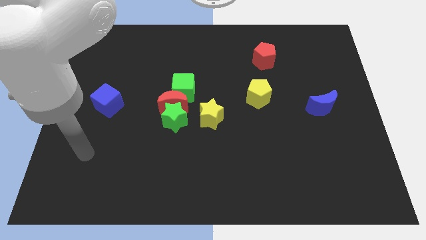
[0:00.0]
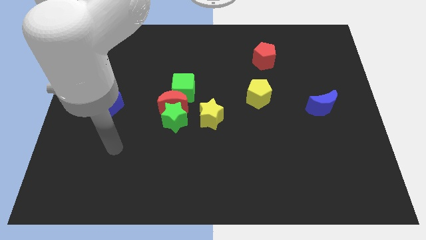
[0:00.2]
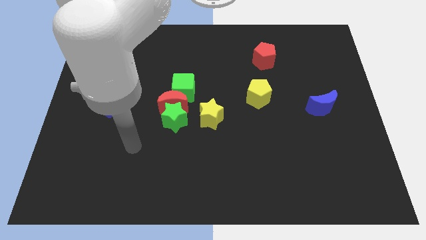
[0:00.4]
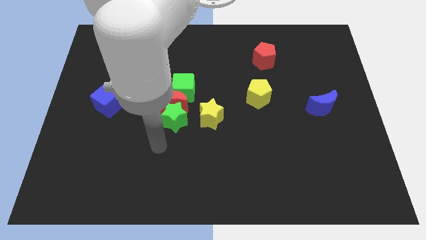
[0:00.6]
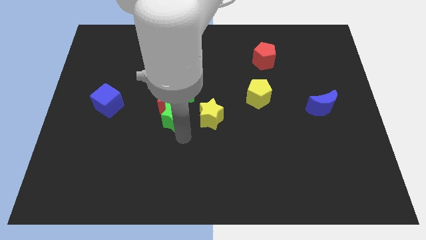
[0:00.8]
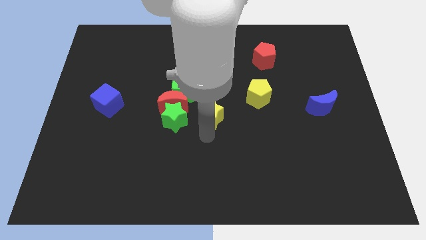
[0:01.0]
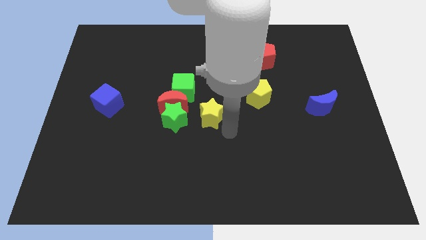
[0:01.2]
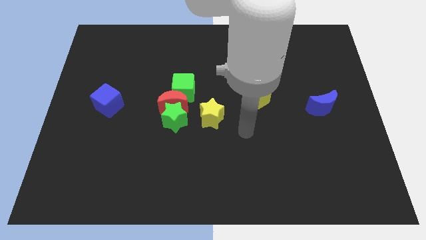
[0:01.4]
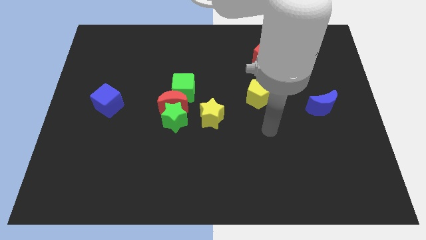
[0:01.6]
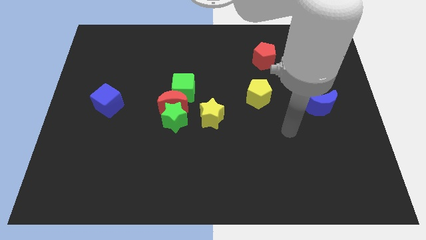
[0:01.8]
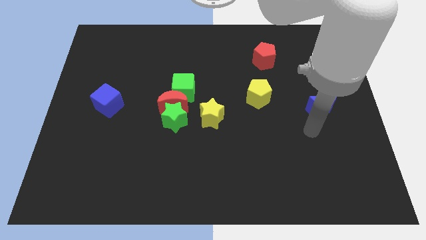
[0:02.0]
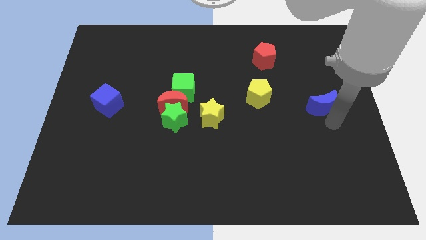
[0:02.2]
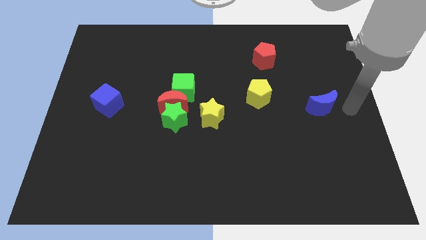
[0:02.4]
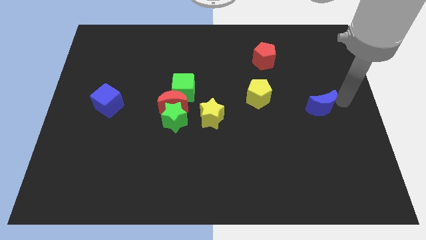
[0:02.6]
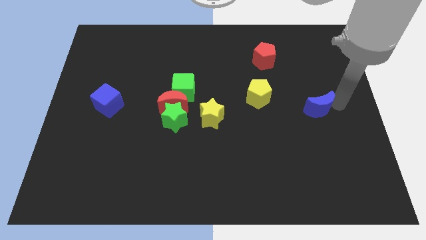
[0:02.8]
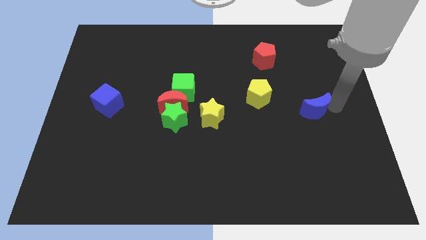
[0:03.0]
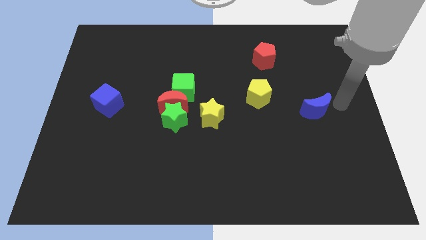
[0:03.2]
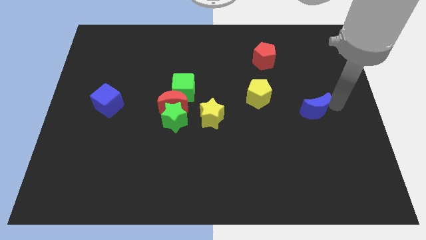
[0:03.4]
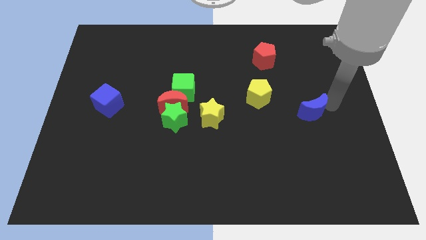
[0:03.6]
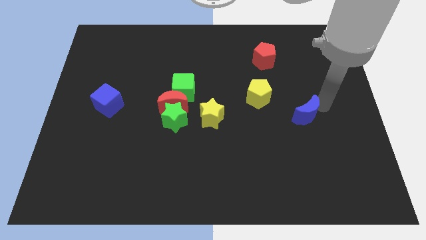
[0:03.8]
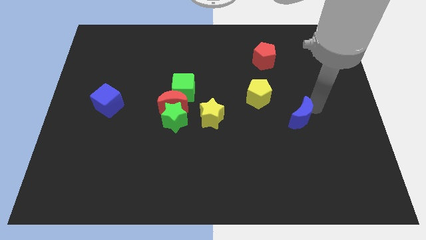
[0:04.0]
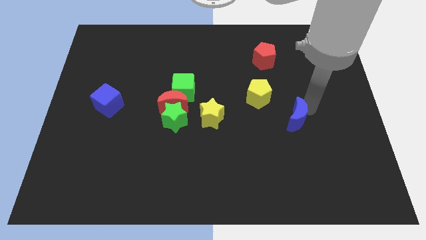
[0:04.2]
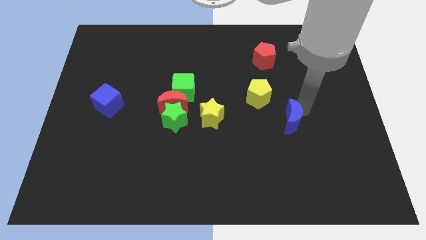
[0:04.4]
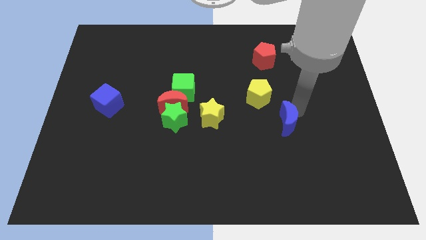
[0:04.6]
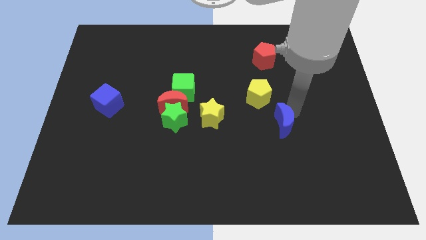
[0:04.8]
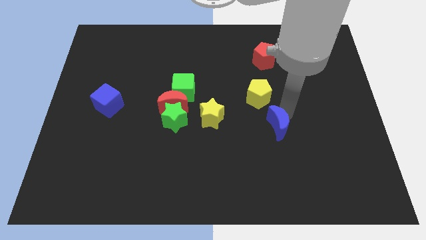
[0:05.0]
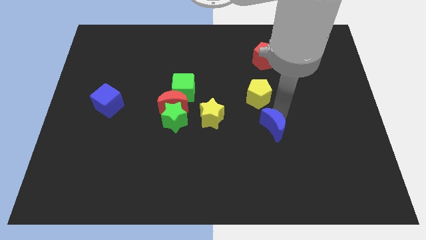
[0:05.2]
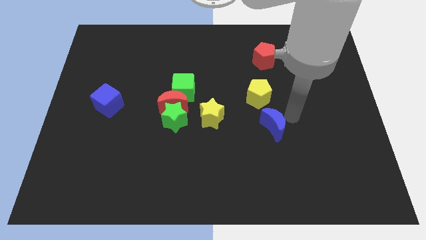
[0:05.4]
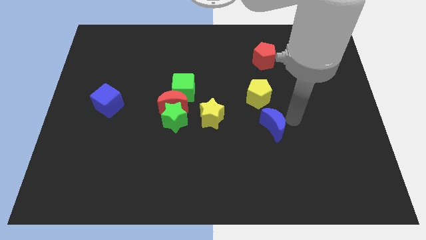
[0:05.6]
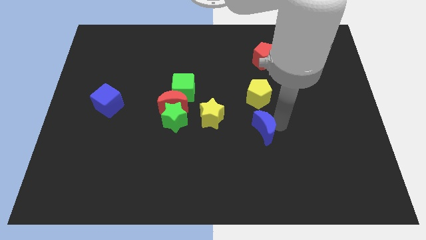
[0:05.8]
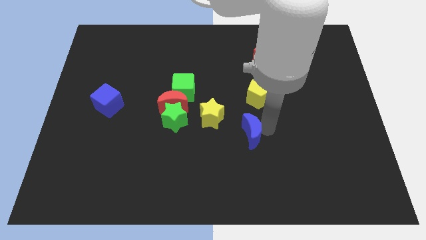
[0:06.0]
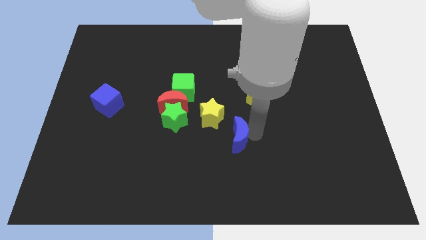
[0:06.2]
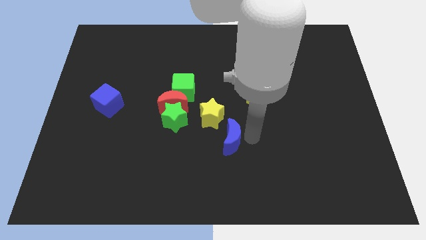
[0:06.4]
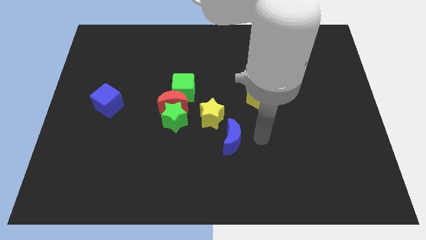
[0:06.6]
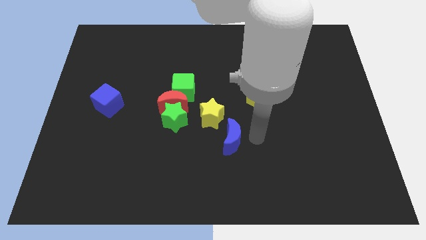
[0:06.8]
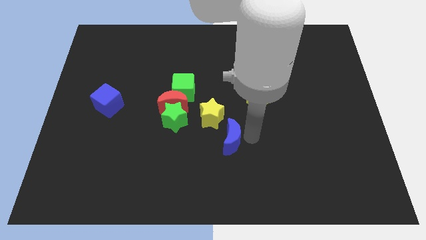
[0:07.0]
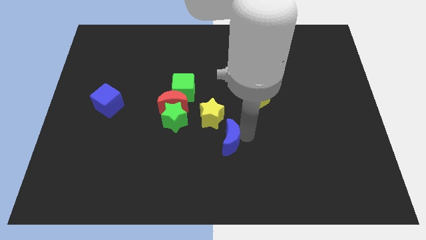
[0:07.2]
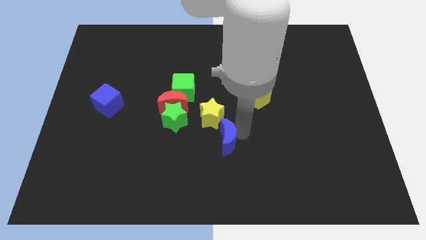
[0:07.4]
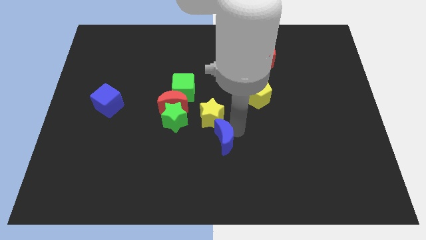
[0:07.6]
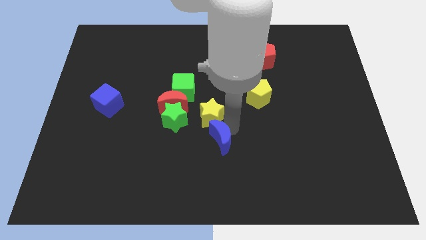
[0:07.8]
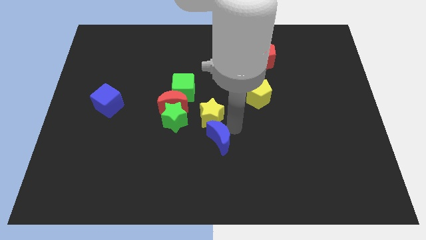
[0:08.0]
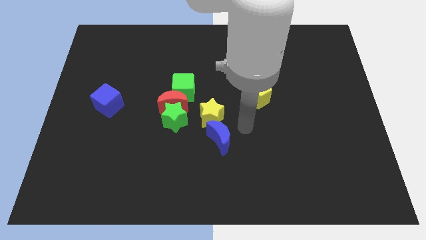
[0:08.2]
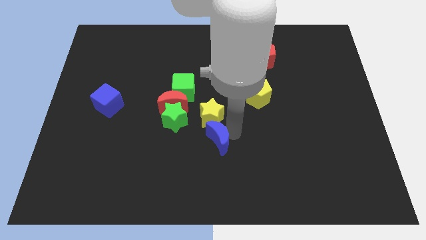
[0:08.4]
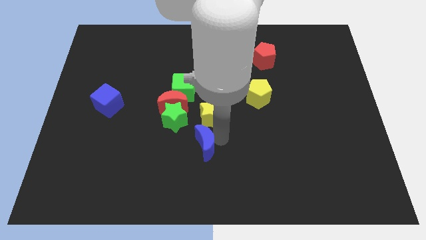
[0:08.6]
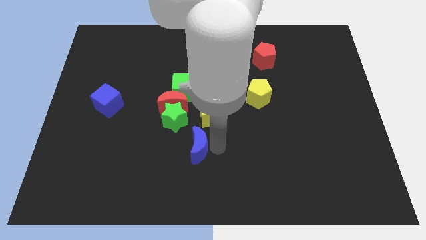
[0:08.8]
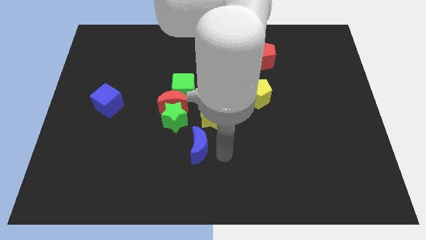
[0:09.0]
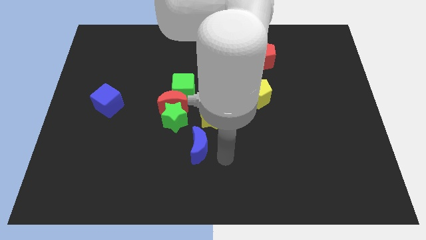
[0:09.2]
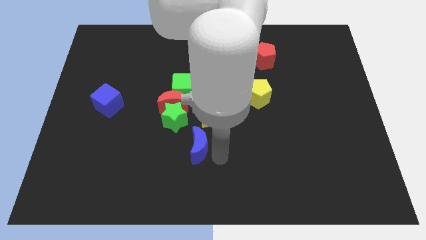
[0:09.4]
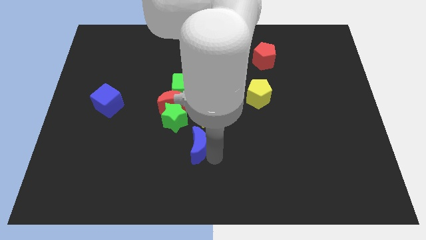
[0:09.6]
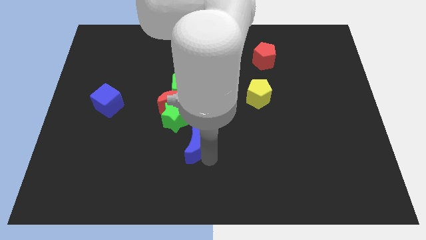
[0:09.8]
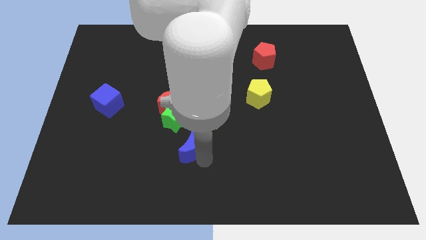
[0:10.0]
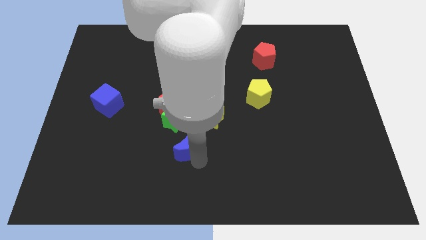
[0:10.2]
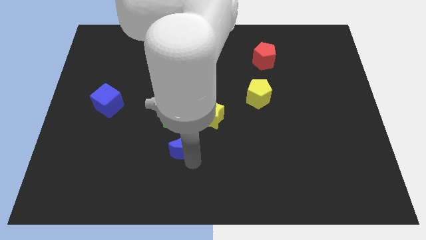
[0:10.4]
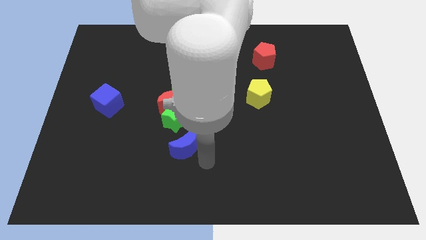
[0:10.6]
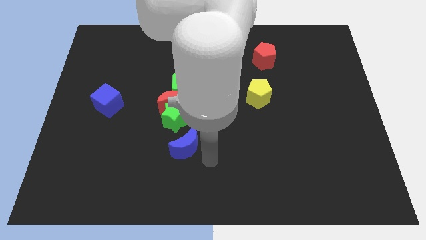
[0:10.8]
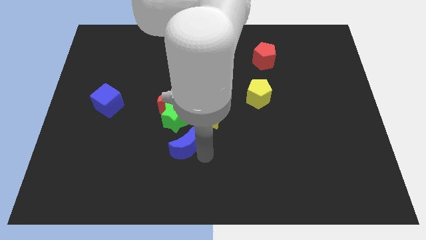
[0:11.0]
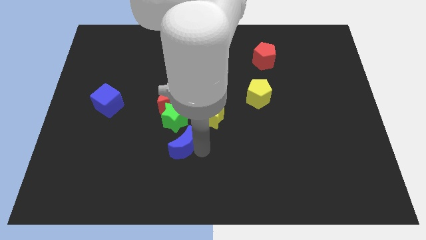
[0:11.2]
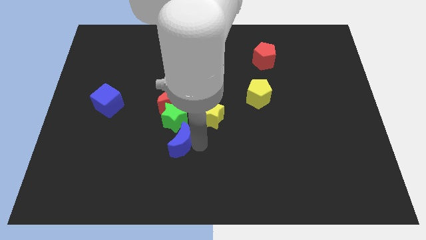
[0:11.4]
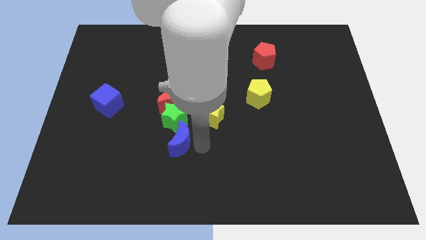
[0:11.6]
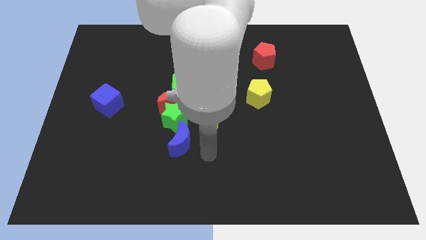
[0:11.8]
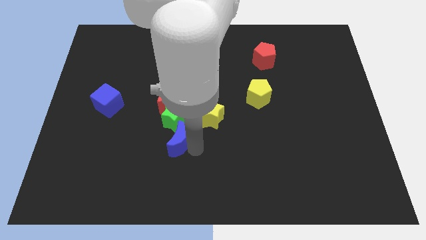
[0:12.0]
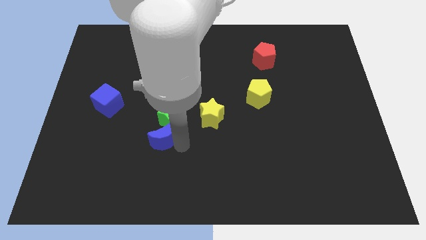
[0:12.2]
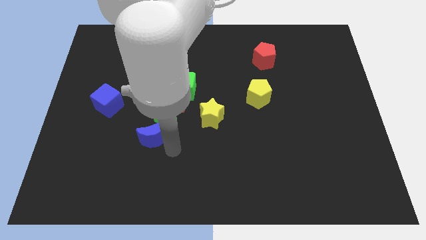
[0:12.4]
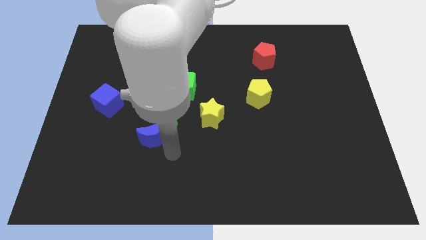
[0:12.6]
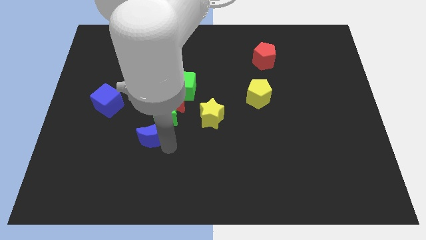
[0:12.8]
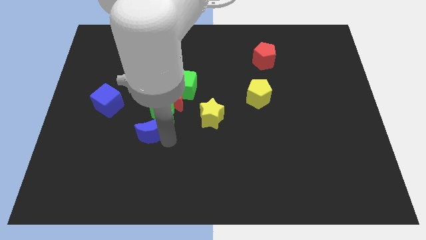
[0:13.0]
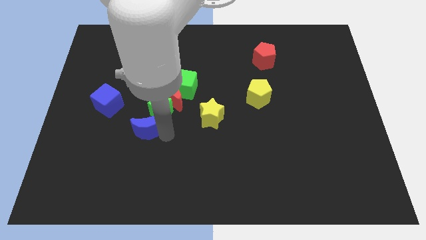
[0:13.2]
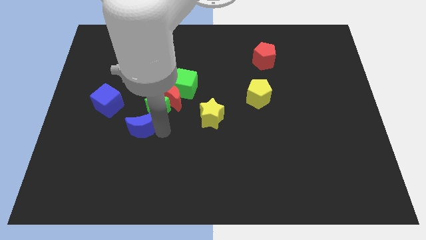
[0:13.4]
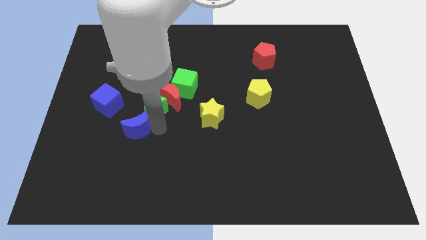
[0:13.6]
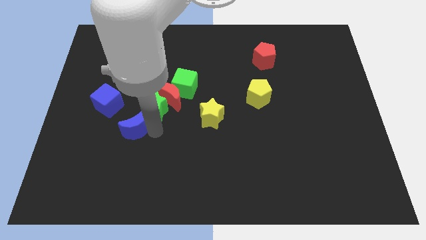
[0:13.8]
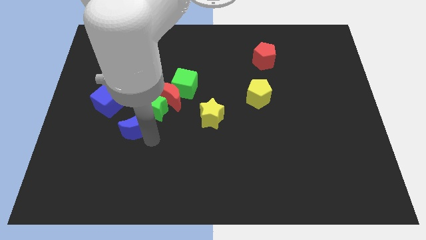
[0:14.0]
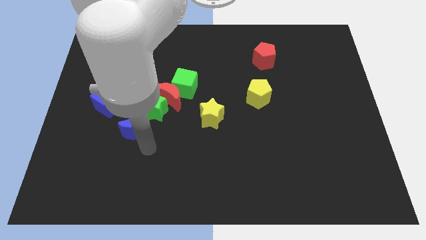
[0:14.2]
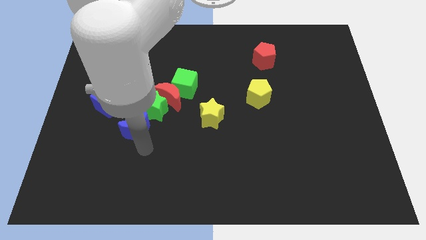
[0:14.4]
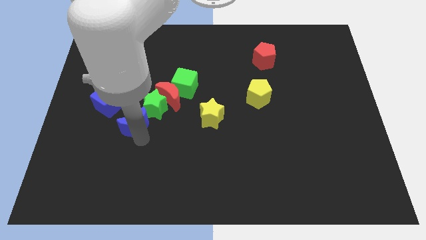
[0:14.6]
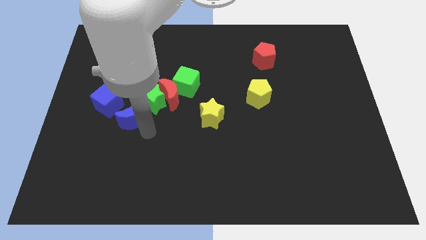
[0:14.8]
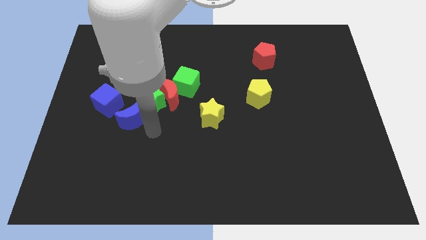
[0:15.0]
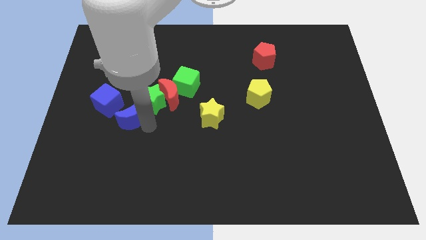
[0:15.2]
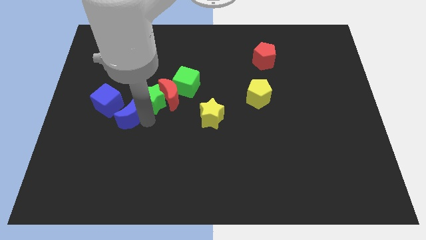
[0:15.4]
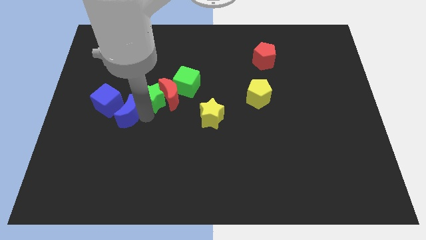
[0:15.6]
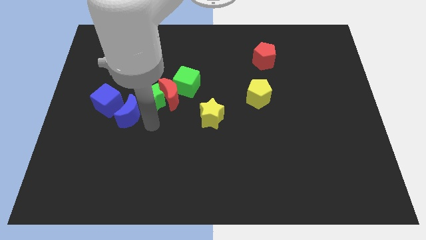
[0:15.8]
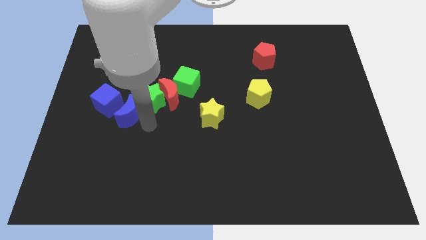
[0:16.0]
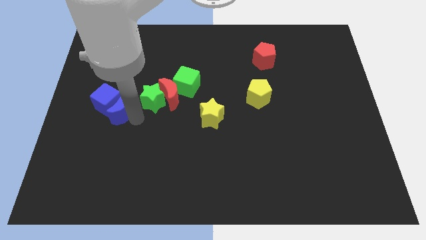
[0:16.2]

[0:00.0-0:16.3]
slide the blue moon to the blue cube

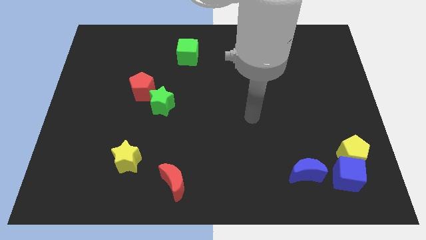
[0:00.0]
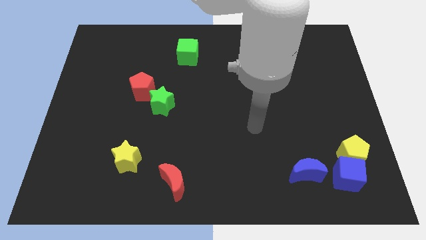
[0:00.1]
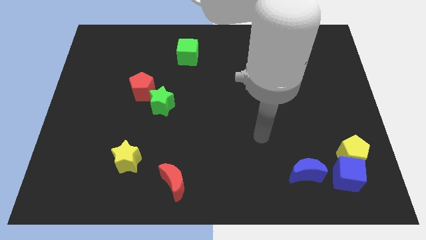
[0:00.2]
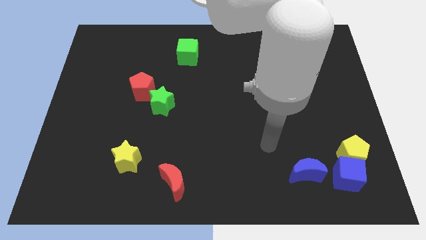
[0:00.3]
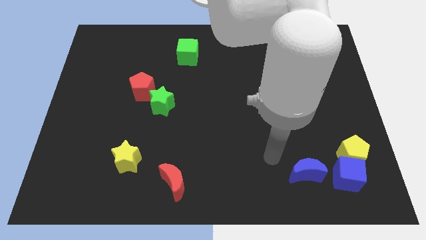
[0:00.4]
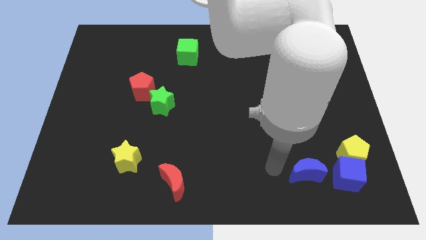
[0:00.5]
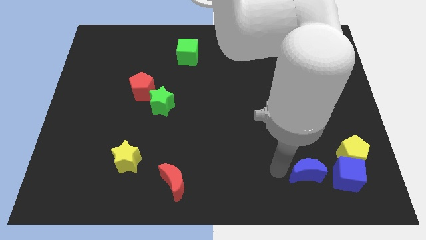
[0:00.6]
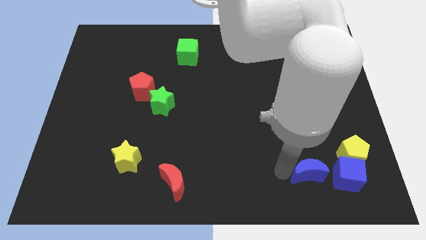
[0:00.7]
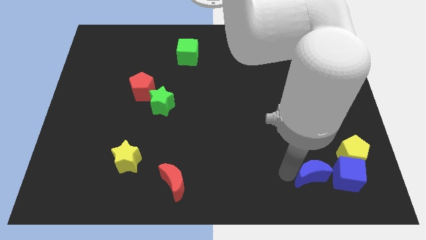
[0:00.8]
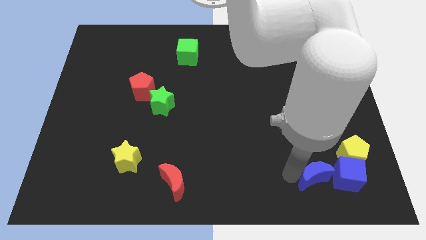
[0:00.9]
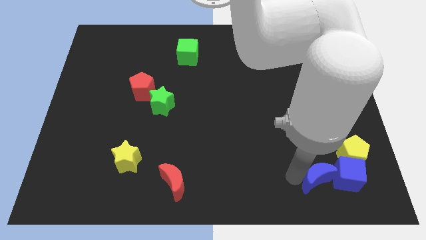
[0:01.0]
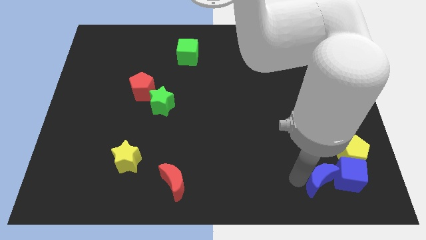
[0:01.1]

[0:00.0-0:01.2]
slide the blue moon next to the blue cube
